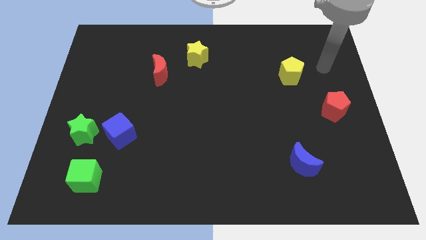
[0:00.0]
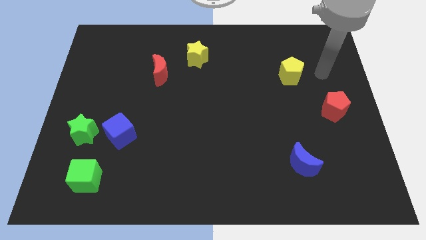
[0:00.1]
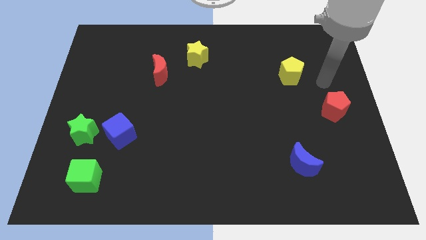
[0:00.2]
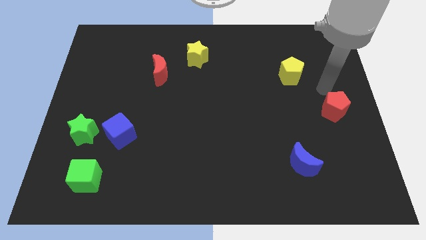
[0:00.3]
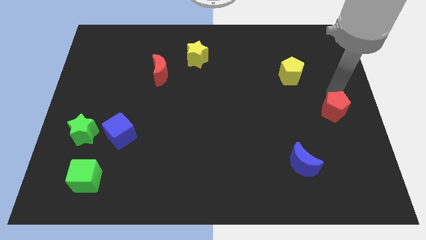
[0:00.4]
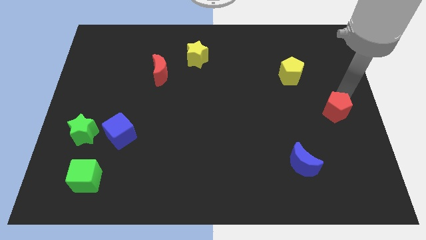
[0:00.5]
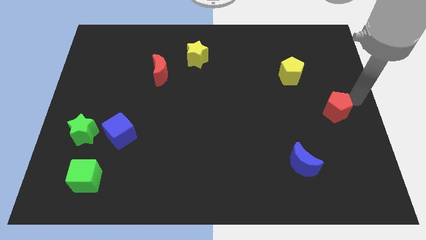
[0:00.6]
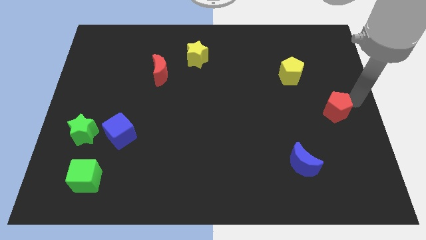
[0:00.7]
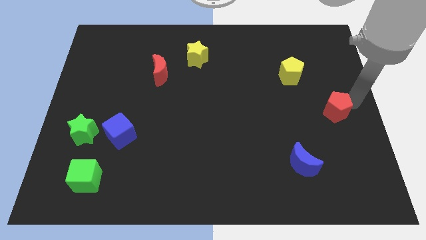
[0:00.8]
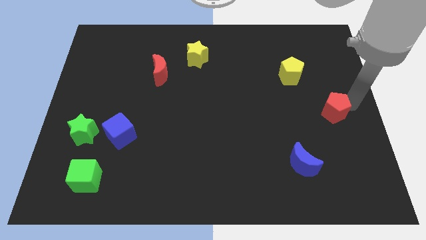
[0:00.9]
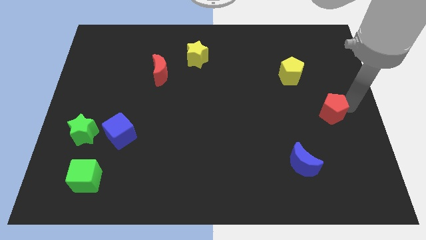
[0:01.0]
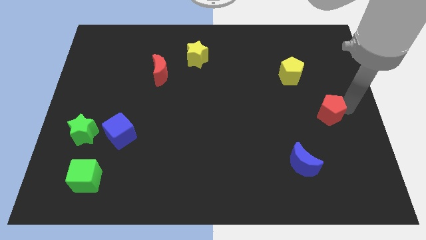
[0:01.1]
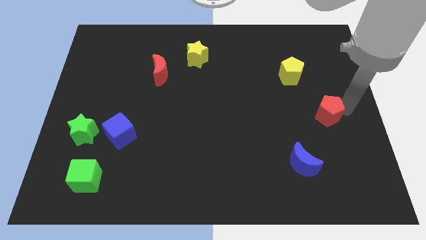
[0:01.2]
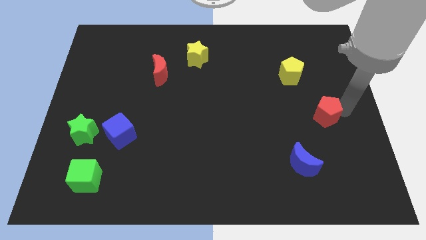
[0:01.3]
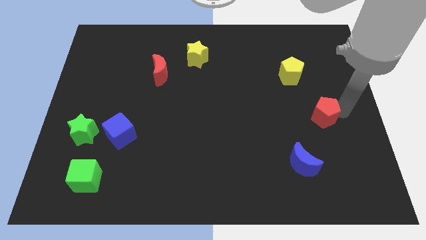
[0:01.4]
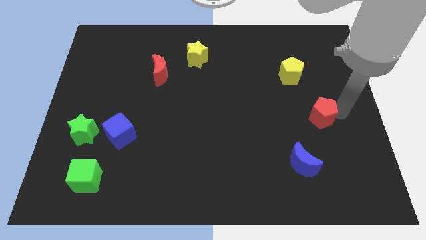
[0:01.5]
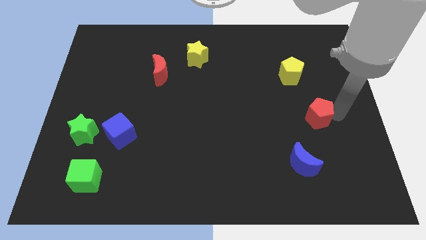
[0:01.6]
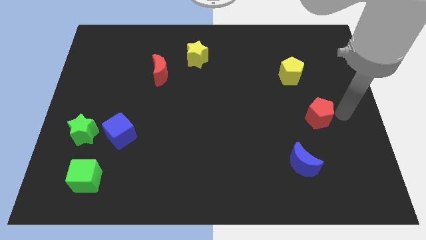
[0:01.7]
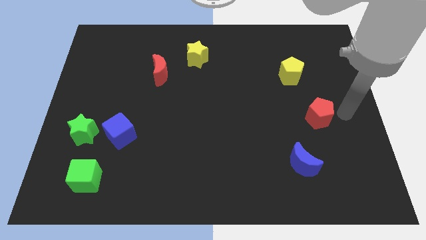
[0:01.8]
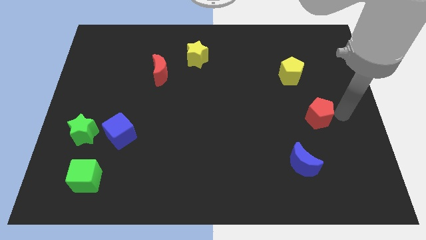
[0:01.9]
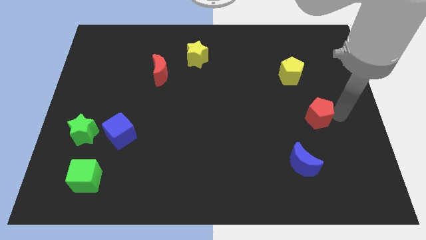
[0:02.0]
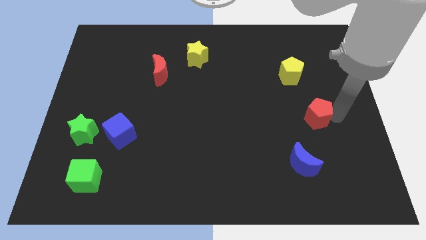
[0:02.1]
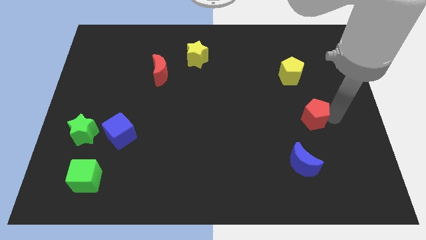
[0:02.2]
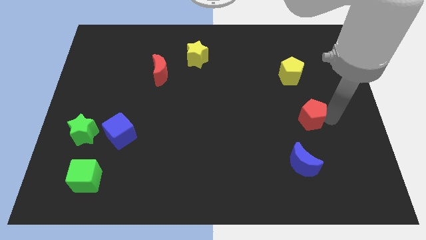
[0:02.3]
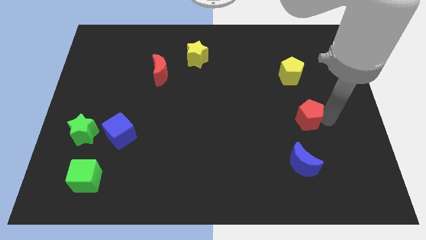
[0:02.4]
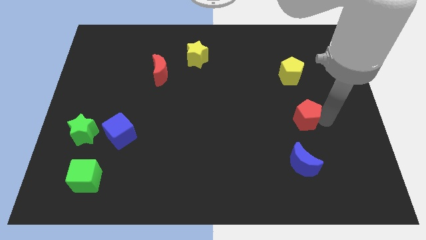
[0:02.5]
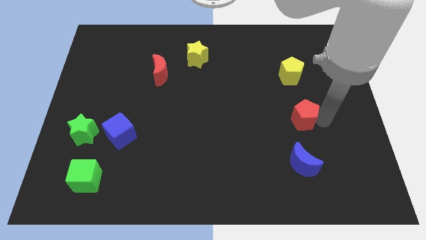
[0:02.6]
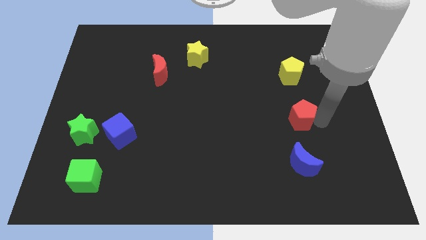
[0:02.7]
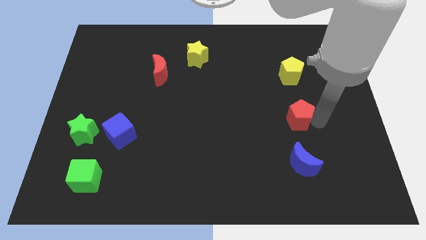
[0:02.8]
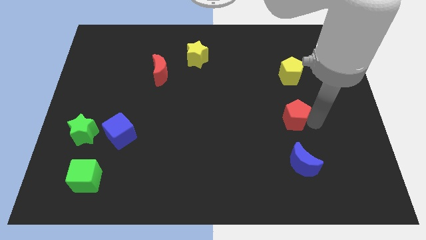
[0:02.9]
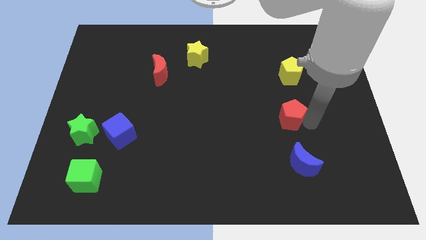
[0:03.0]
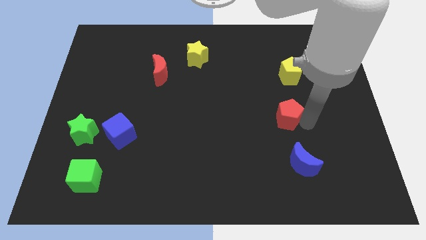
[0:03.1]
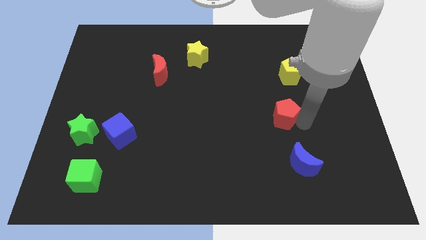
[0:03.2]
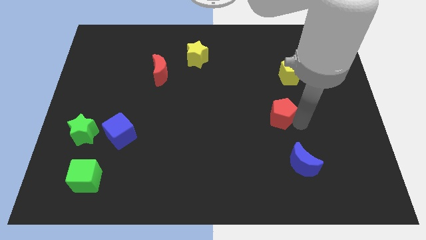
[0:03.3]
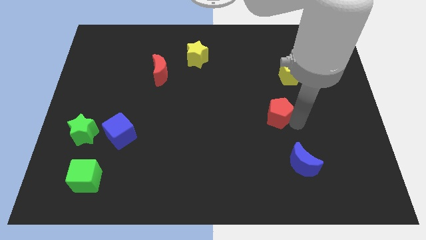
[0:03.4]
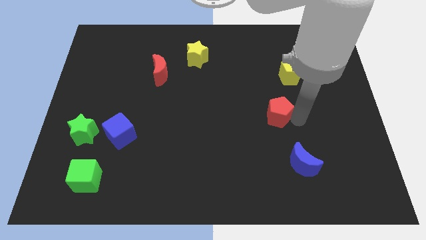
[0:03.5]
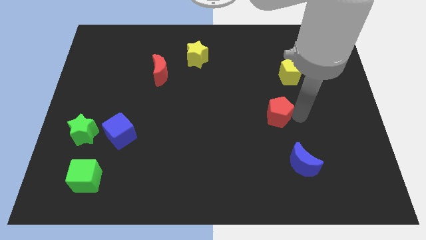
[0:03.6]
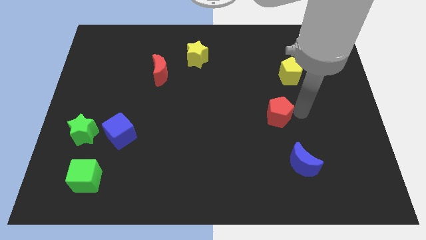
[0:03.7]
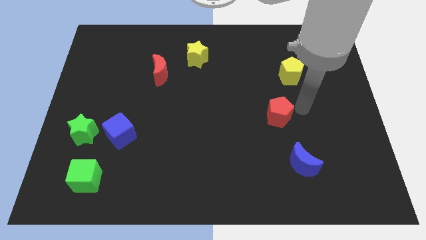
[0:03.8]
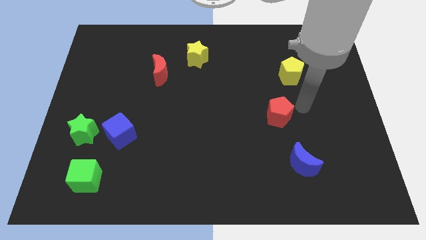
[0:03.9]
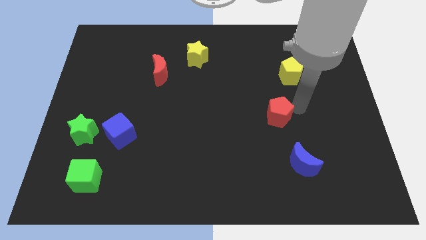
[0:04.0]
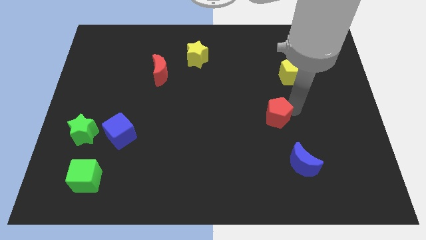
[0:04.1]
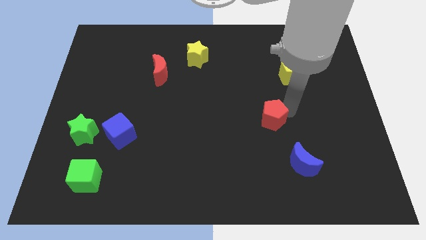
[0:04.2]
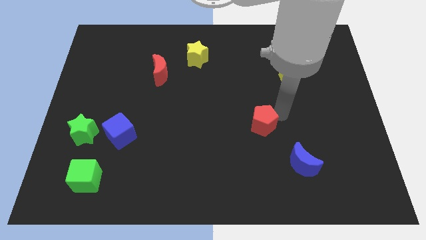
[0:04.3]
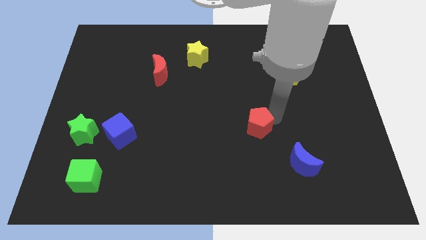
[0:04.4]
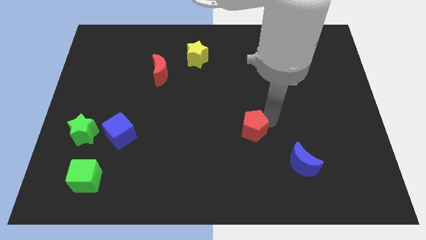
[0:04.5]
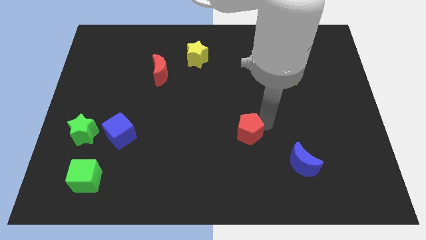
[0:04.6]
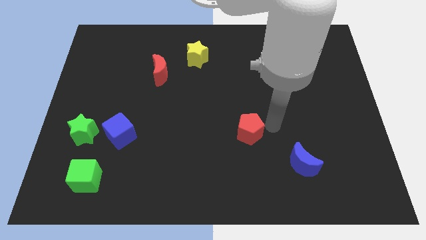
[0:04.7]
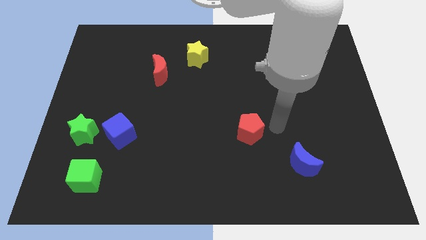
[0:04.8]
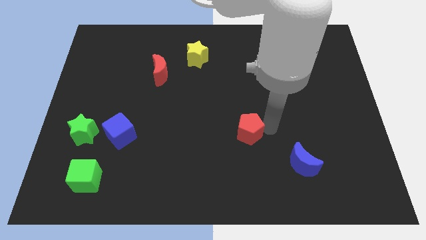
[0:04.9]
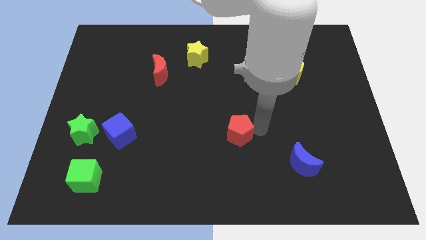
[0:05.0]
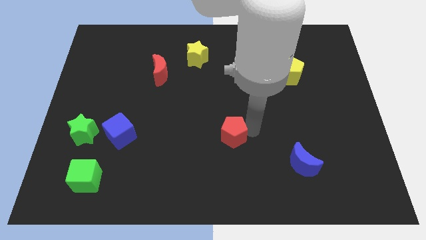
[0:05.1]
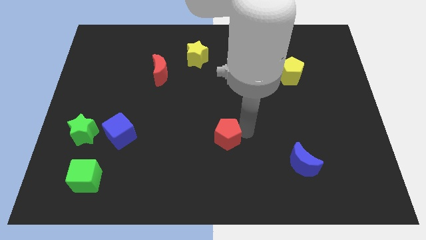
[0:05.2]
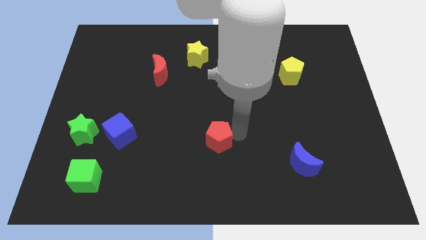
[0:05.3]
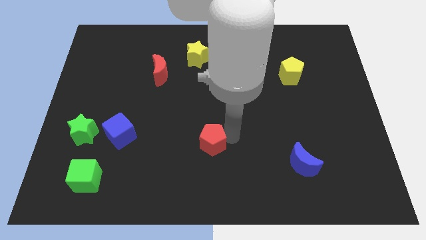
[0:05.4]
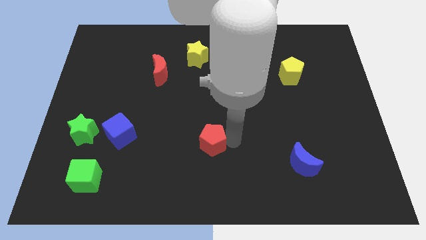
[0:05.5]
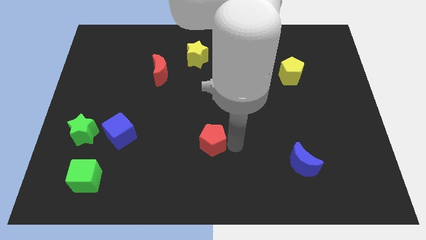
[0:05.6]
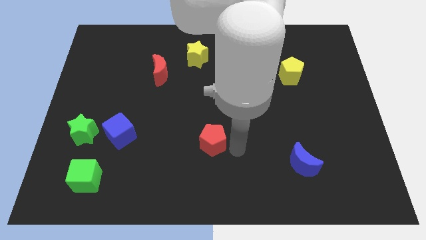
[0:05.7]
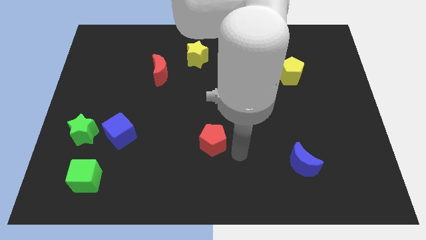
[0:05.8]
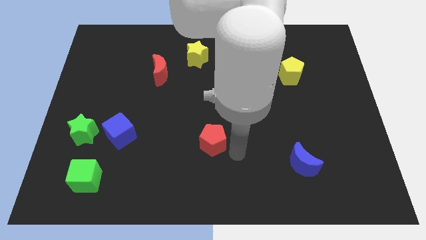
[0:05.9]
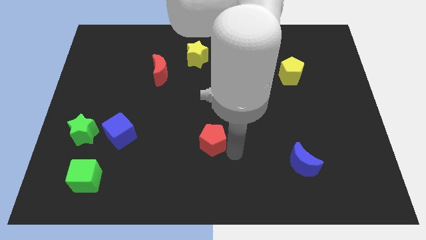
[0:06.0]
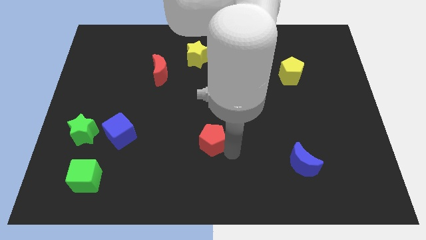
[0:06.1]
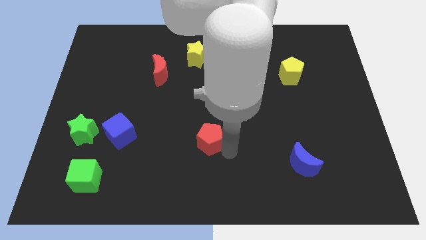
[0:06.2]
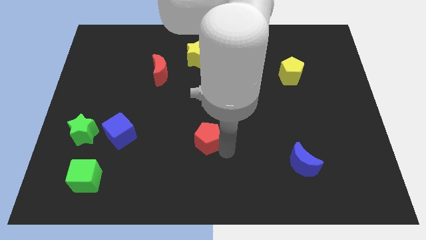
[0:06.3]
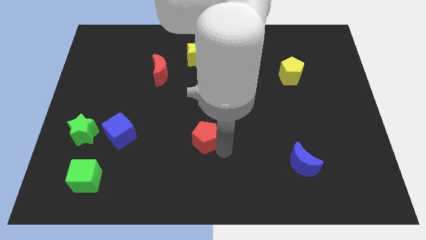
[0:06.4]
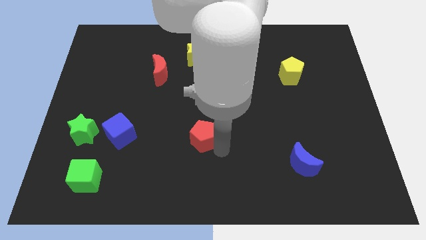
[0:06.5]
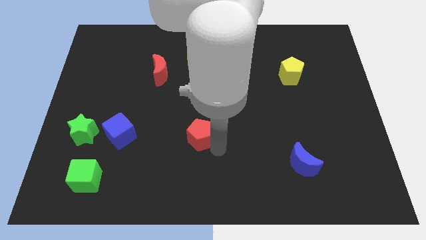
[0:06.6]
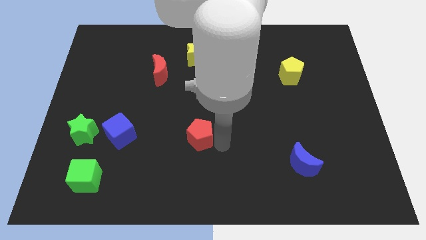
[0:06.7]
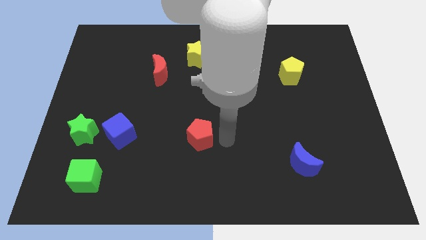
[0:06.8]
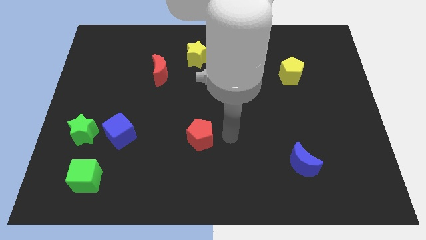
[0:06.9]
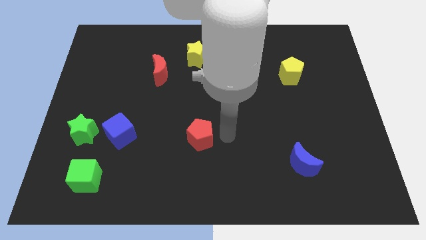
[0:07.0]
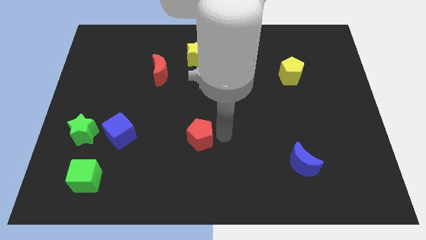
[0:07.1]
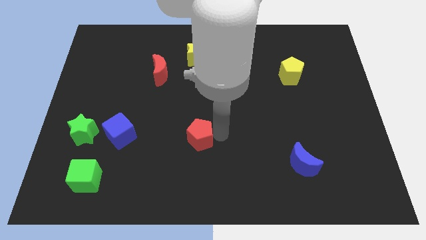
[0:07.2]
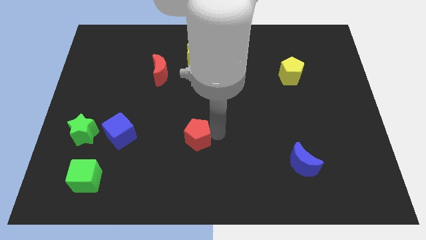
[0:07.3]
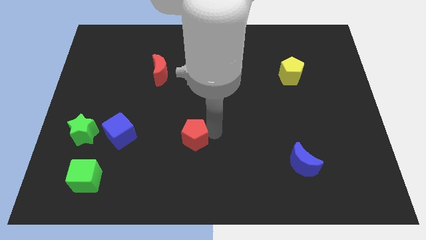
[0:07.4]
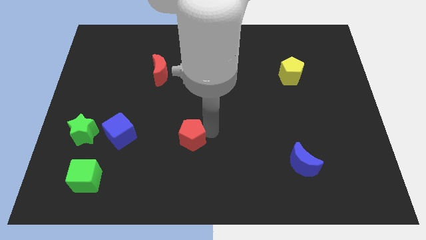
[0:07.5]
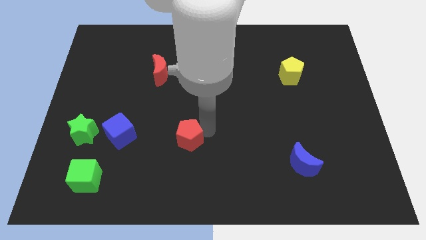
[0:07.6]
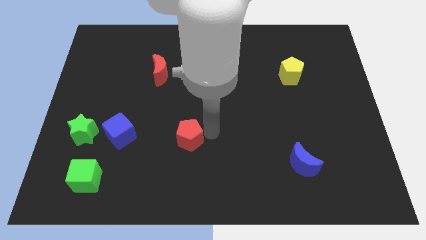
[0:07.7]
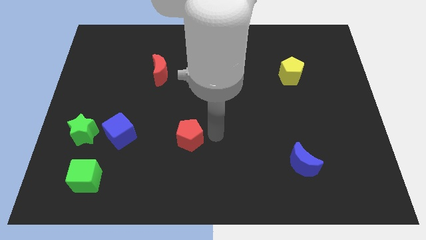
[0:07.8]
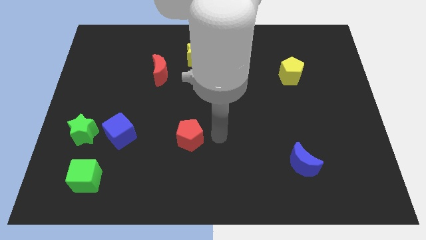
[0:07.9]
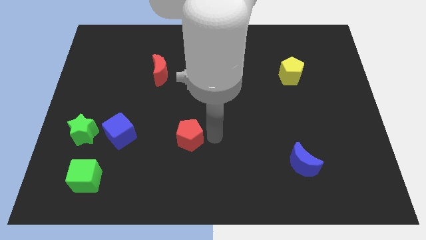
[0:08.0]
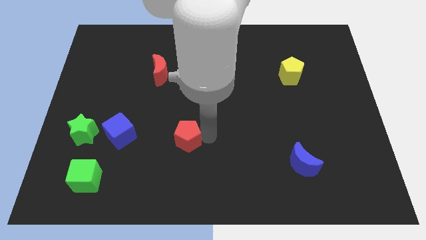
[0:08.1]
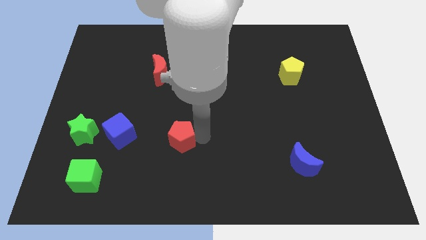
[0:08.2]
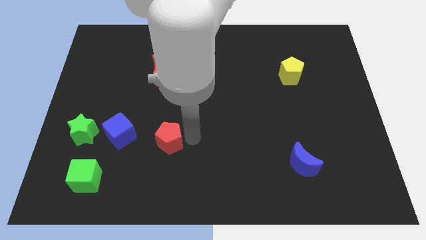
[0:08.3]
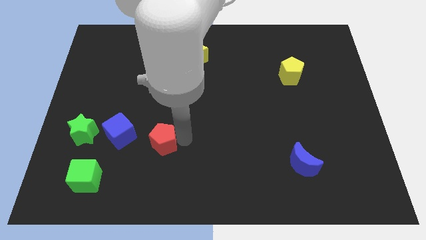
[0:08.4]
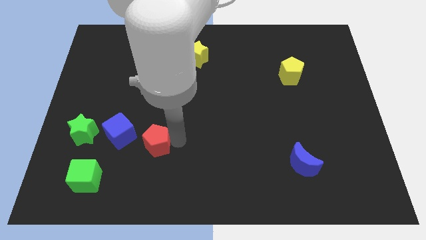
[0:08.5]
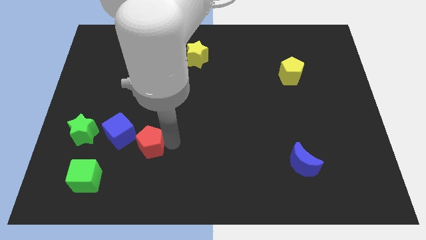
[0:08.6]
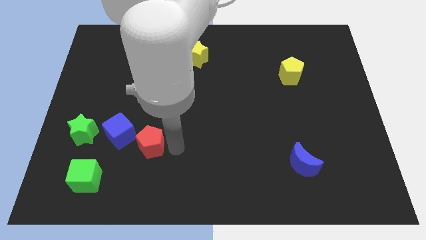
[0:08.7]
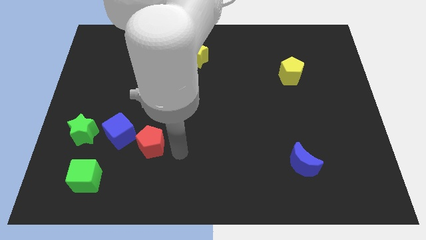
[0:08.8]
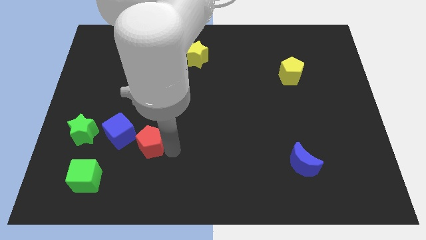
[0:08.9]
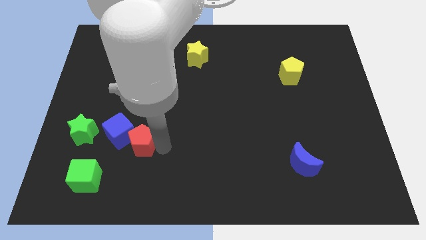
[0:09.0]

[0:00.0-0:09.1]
push the red pentagon towards the blue cube
